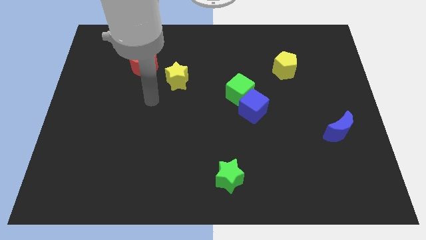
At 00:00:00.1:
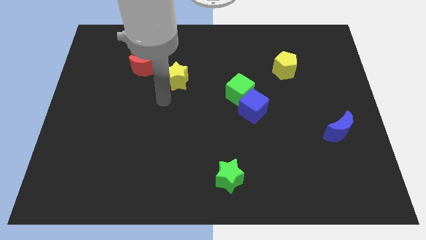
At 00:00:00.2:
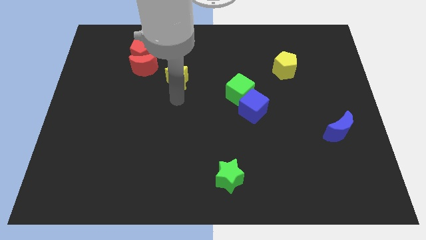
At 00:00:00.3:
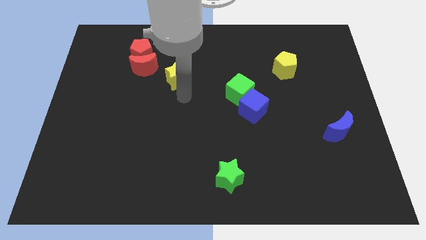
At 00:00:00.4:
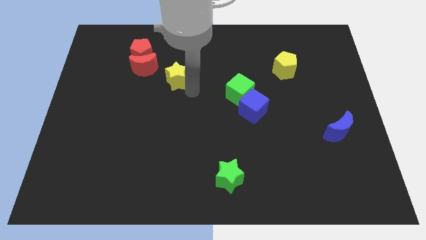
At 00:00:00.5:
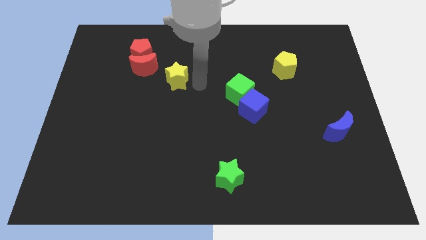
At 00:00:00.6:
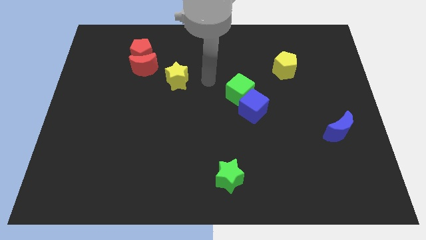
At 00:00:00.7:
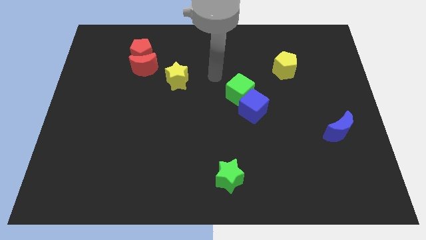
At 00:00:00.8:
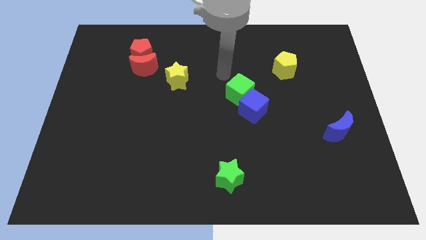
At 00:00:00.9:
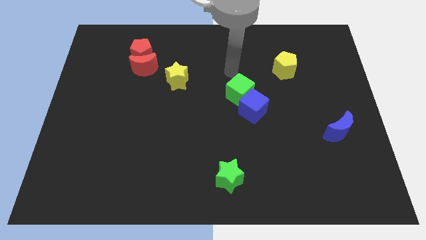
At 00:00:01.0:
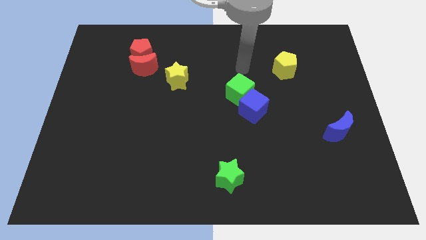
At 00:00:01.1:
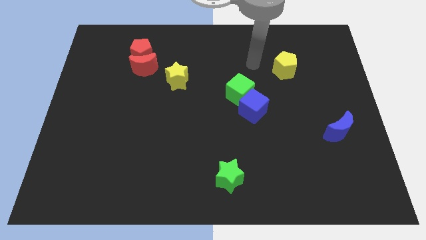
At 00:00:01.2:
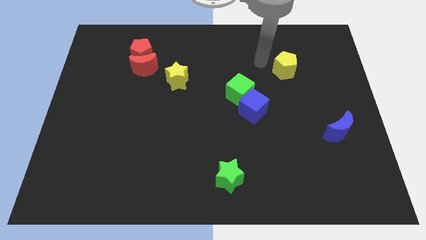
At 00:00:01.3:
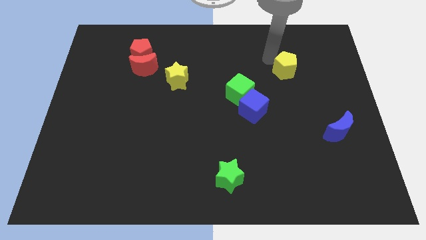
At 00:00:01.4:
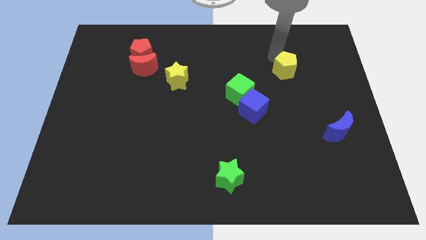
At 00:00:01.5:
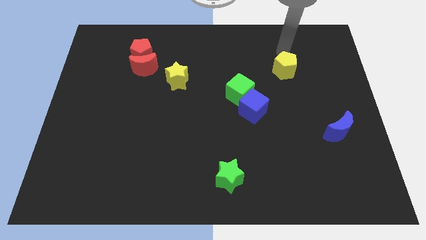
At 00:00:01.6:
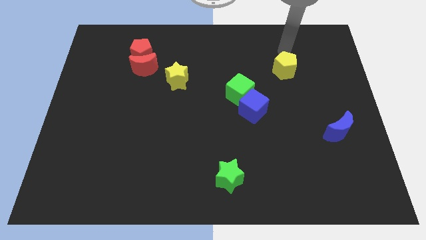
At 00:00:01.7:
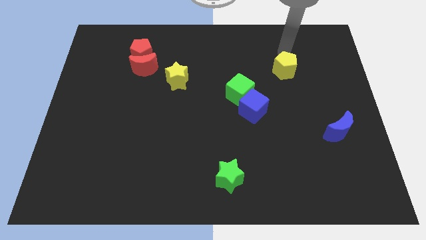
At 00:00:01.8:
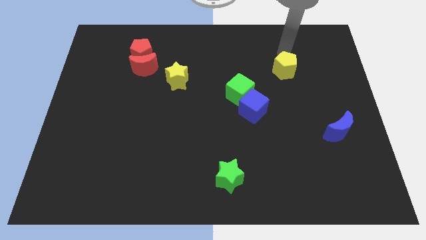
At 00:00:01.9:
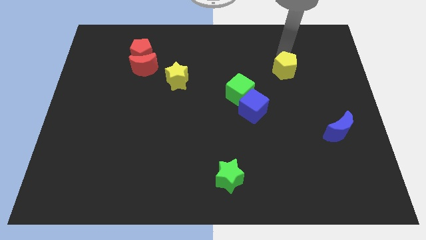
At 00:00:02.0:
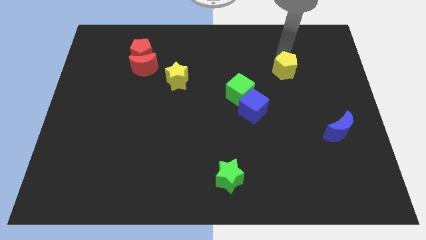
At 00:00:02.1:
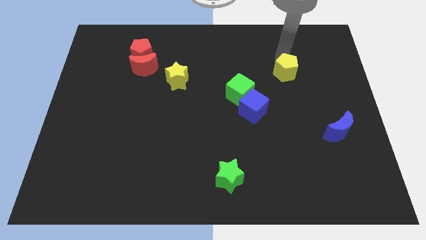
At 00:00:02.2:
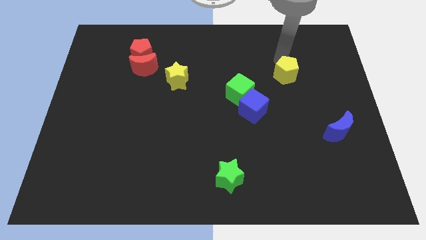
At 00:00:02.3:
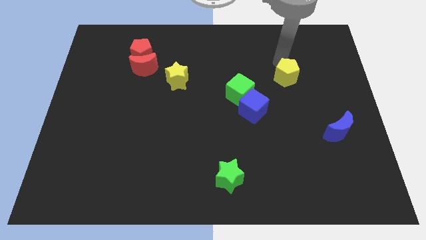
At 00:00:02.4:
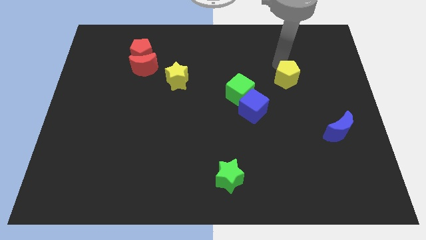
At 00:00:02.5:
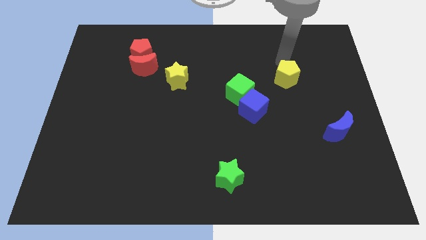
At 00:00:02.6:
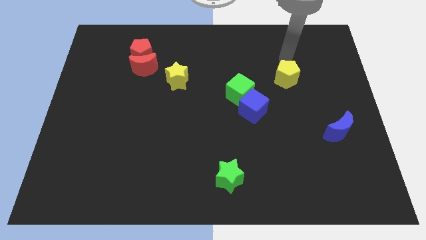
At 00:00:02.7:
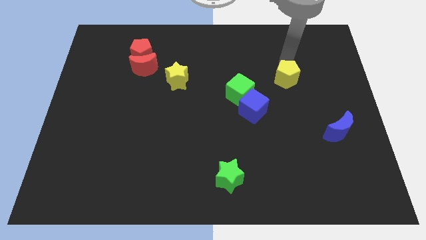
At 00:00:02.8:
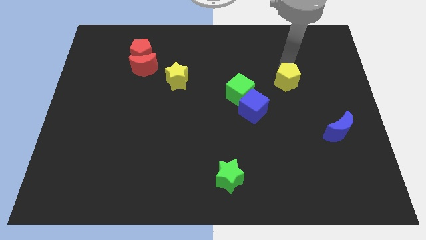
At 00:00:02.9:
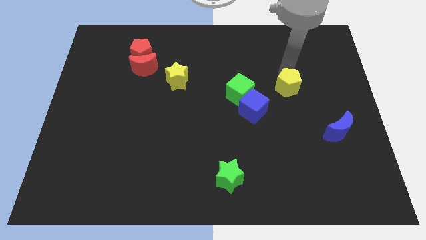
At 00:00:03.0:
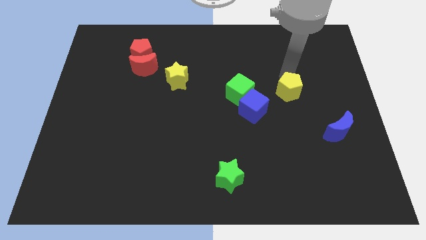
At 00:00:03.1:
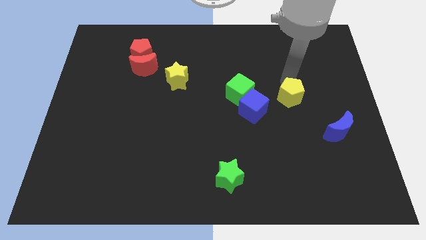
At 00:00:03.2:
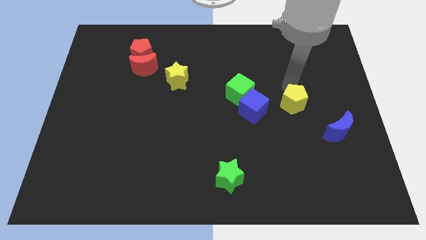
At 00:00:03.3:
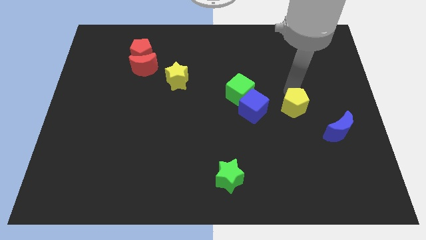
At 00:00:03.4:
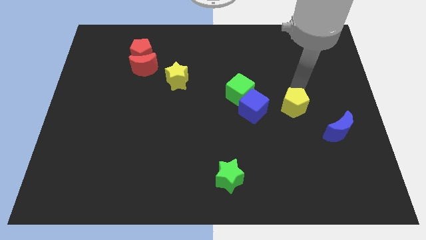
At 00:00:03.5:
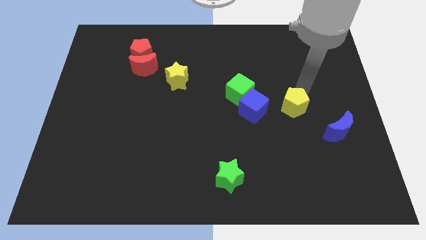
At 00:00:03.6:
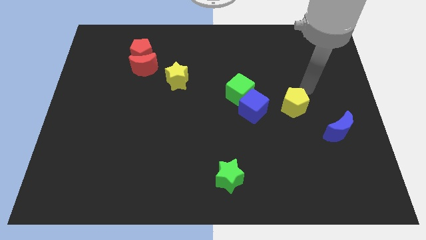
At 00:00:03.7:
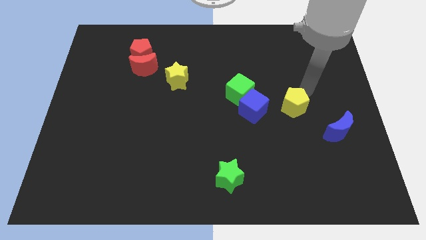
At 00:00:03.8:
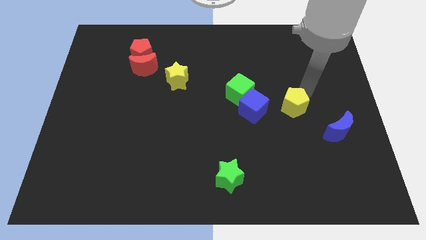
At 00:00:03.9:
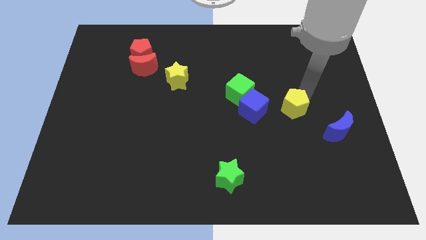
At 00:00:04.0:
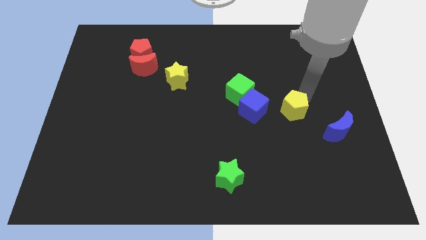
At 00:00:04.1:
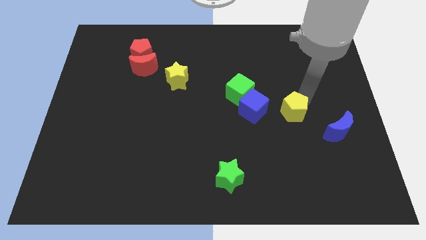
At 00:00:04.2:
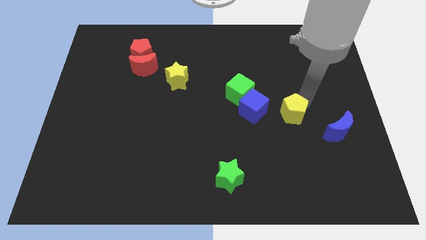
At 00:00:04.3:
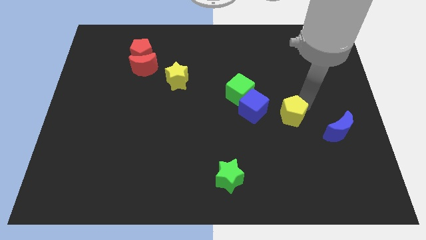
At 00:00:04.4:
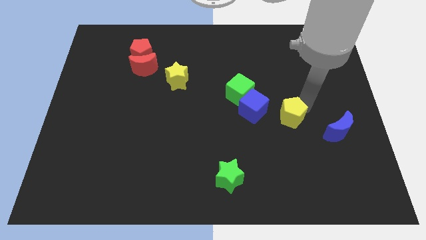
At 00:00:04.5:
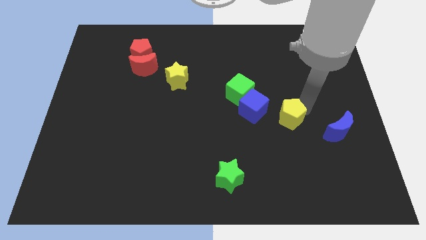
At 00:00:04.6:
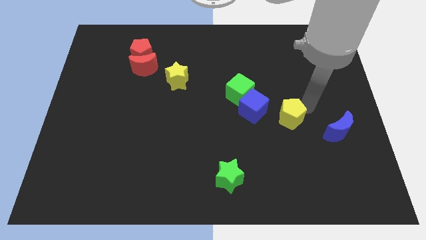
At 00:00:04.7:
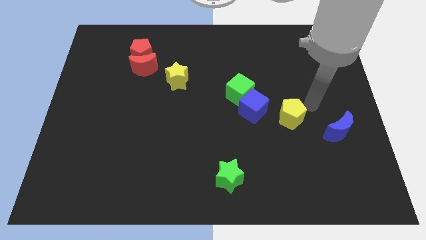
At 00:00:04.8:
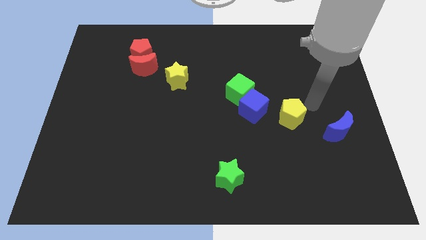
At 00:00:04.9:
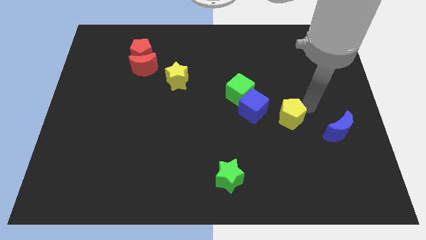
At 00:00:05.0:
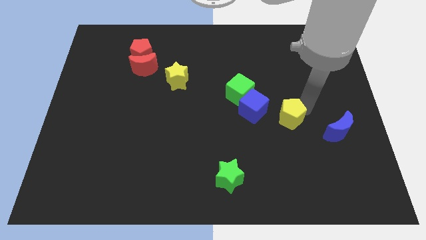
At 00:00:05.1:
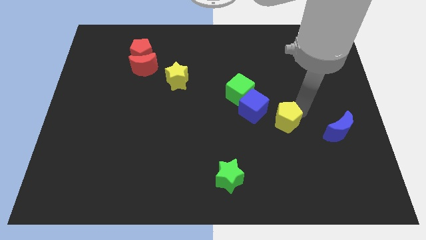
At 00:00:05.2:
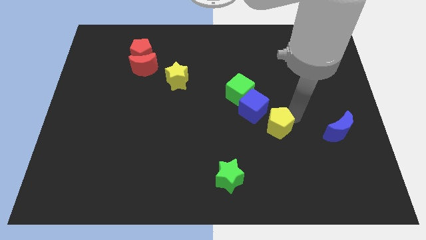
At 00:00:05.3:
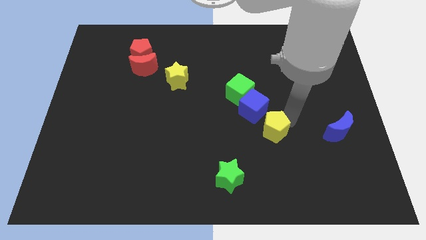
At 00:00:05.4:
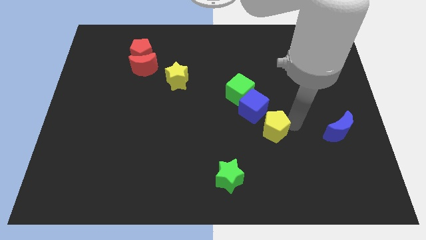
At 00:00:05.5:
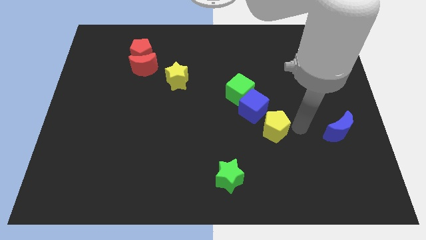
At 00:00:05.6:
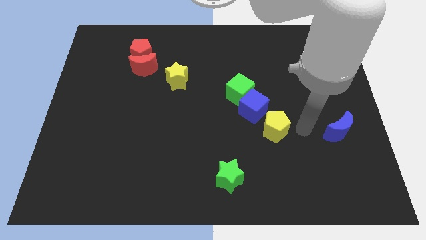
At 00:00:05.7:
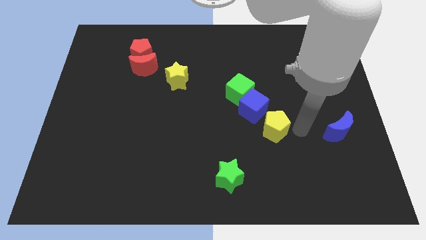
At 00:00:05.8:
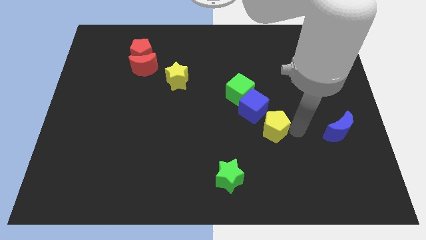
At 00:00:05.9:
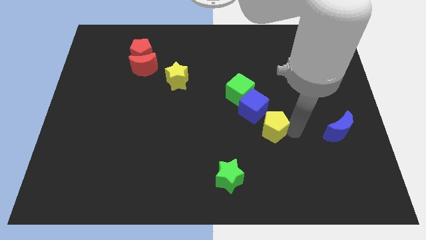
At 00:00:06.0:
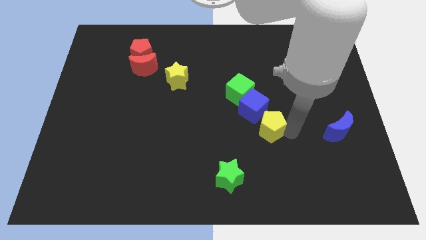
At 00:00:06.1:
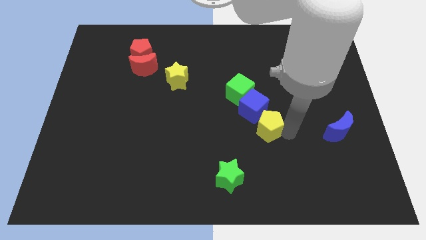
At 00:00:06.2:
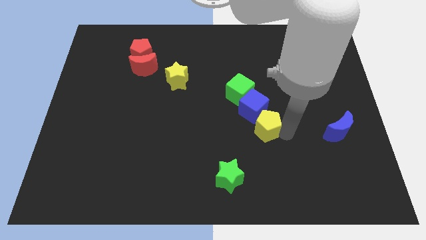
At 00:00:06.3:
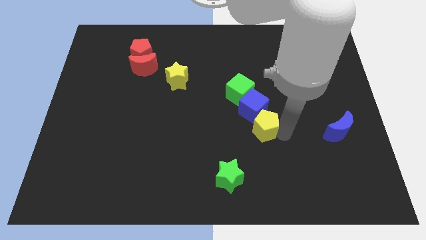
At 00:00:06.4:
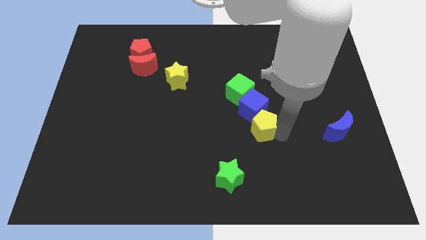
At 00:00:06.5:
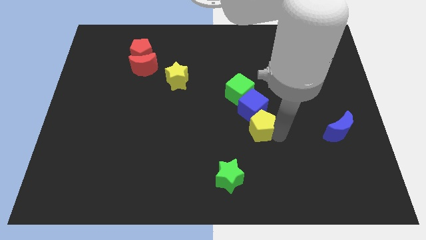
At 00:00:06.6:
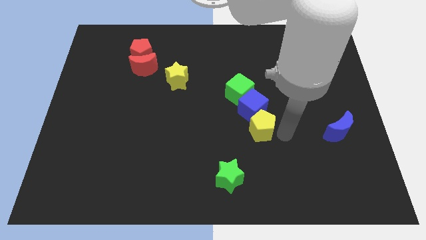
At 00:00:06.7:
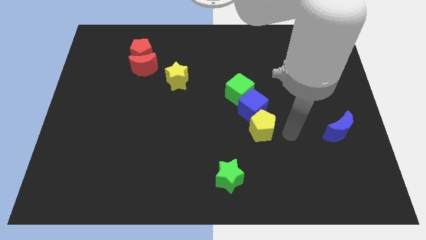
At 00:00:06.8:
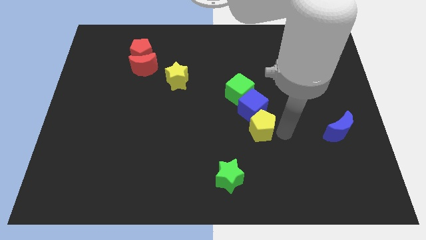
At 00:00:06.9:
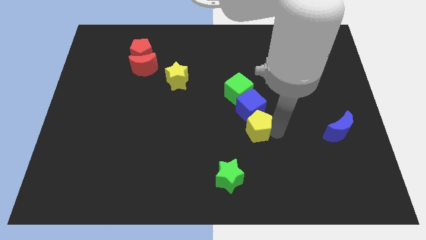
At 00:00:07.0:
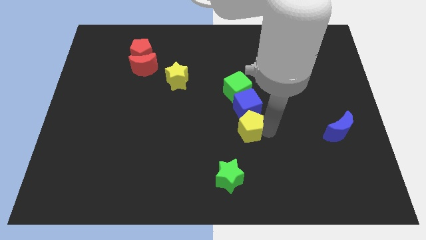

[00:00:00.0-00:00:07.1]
move the yellow pentagon to the center

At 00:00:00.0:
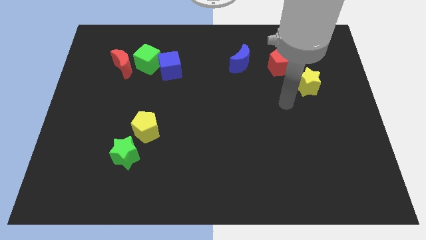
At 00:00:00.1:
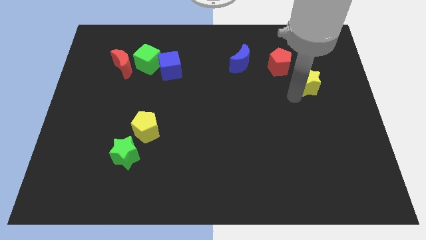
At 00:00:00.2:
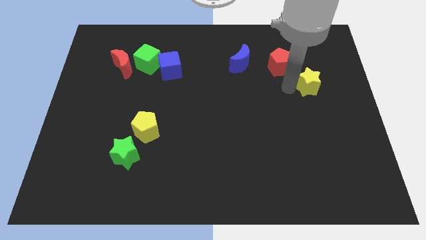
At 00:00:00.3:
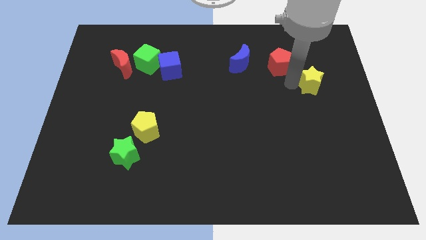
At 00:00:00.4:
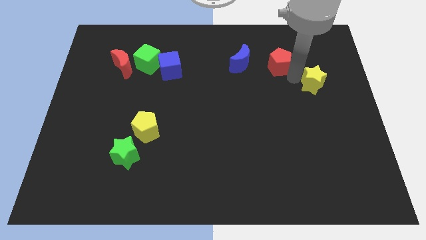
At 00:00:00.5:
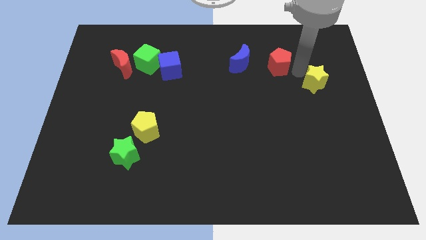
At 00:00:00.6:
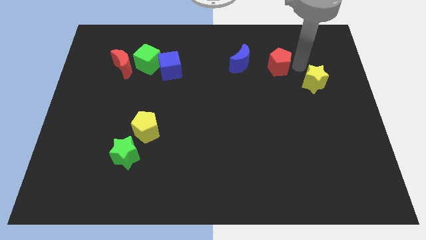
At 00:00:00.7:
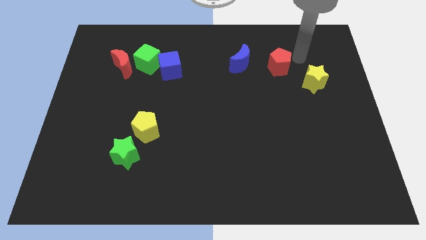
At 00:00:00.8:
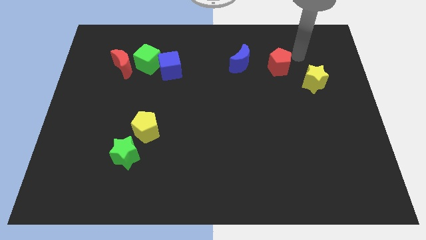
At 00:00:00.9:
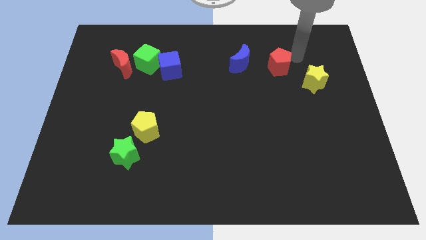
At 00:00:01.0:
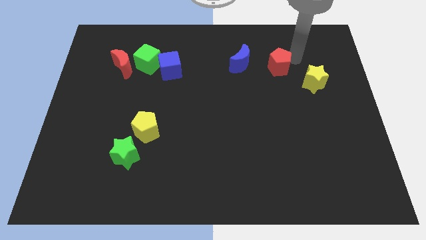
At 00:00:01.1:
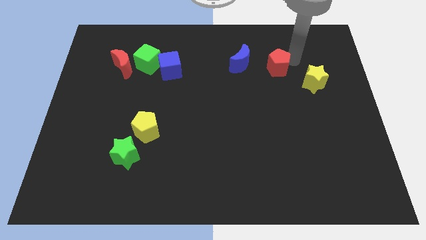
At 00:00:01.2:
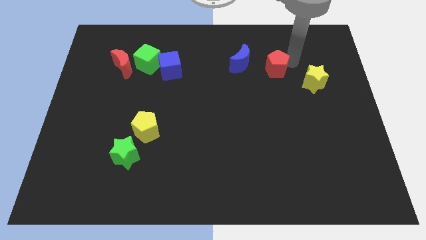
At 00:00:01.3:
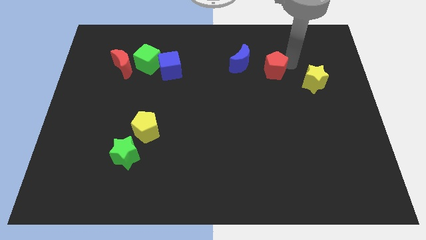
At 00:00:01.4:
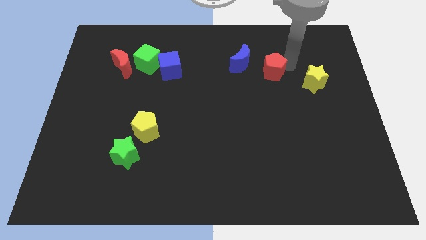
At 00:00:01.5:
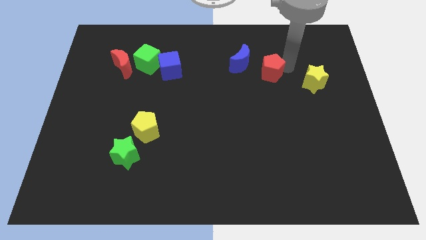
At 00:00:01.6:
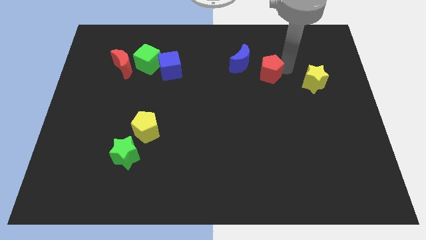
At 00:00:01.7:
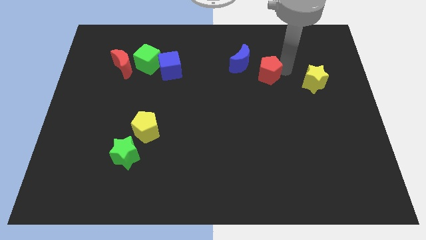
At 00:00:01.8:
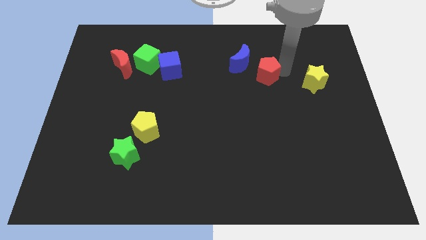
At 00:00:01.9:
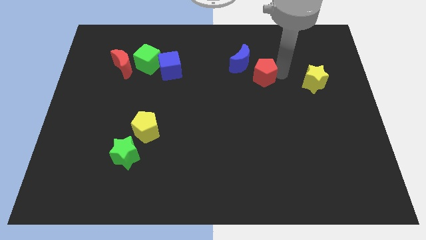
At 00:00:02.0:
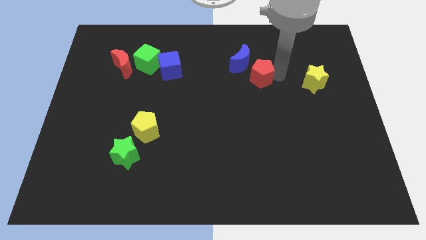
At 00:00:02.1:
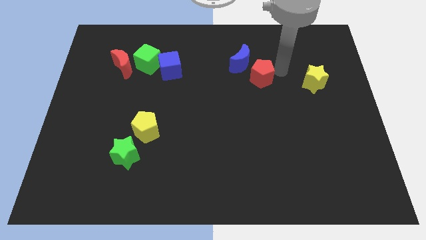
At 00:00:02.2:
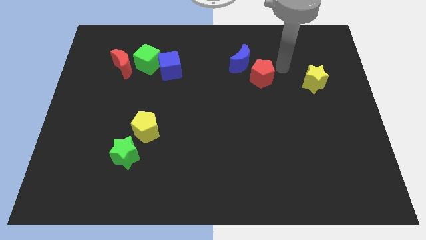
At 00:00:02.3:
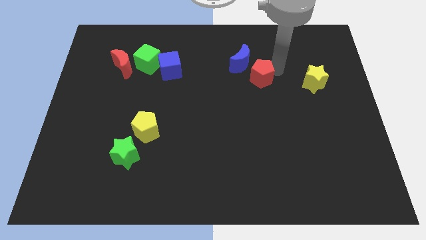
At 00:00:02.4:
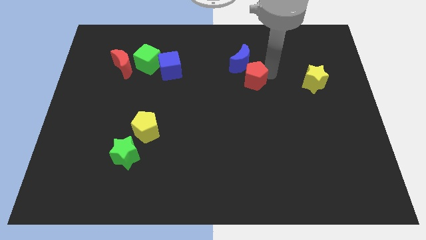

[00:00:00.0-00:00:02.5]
slide the red pentagon to the middle
